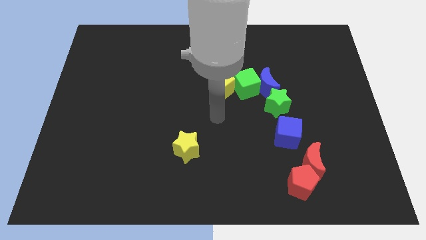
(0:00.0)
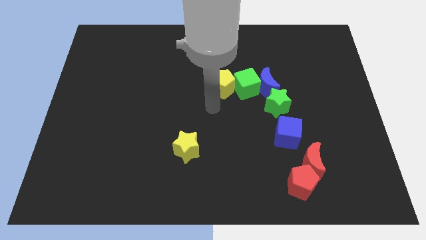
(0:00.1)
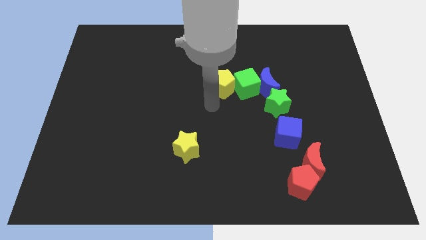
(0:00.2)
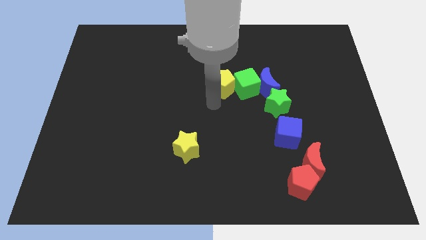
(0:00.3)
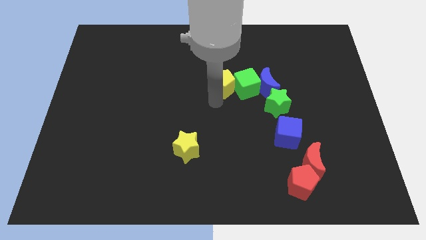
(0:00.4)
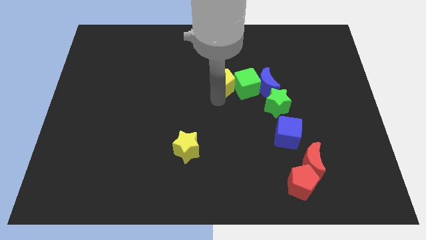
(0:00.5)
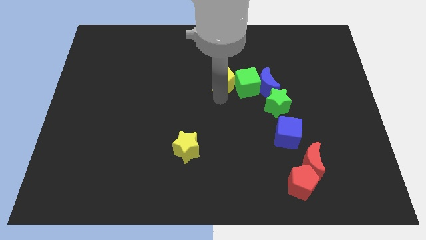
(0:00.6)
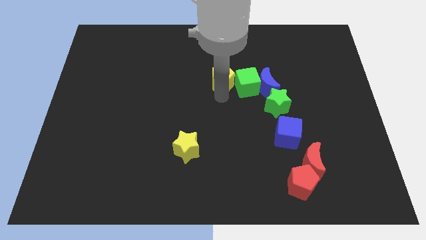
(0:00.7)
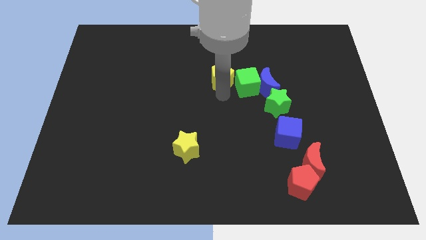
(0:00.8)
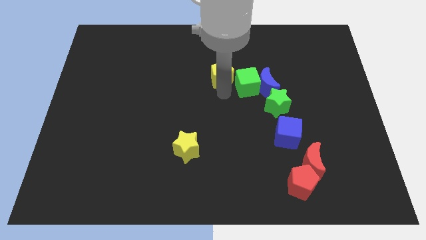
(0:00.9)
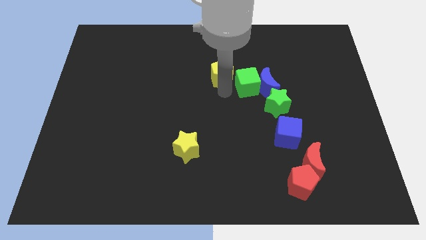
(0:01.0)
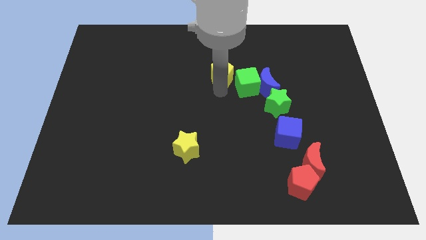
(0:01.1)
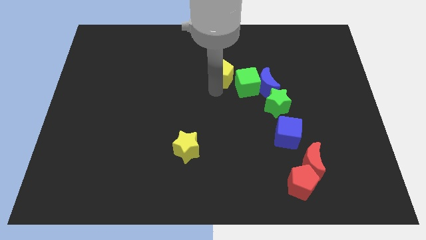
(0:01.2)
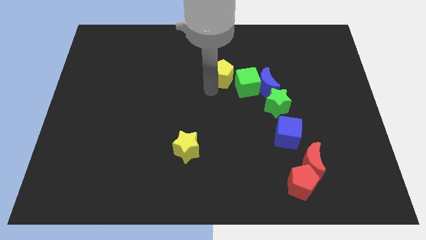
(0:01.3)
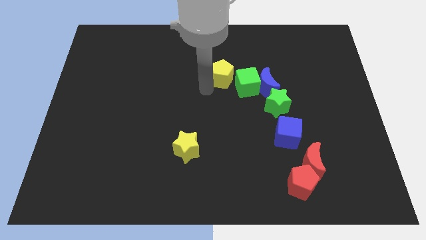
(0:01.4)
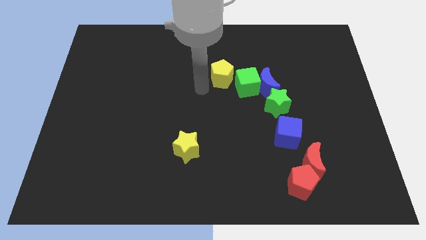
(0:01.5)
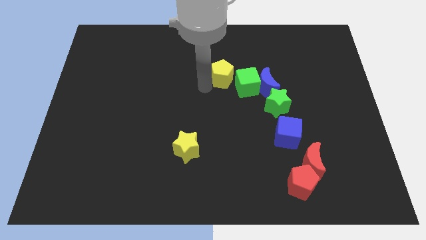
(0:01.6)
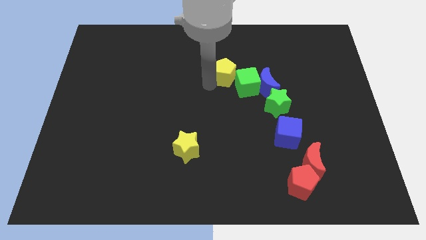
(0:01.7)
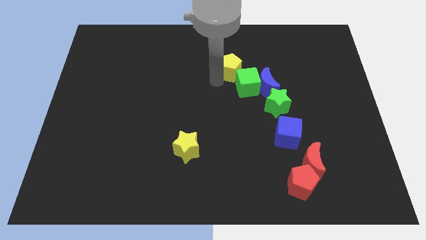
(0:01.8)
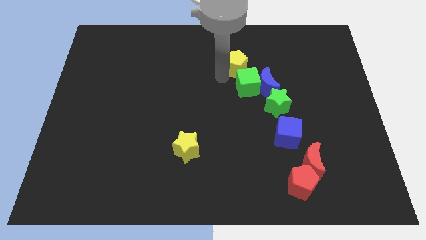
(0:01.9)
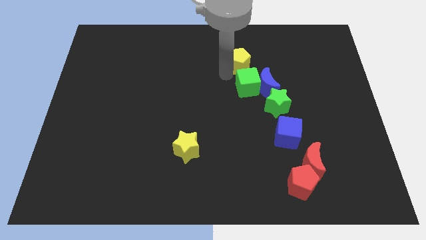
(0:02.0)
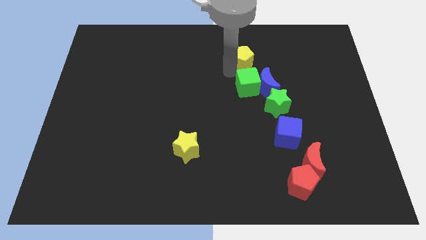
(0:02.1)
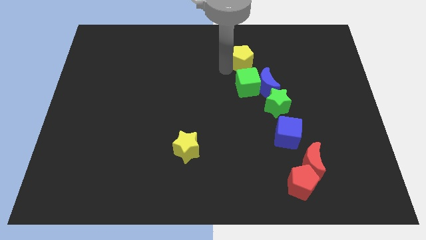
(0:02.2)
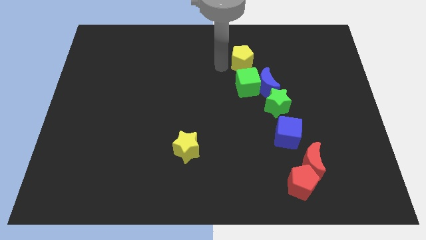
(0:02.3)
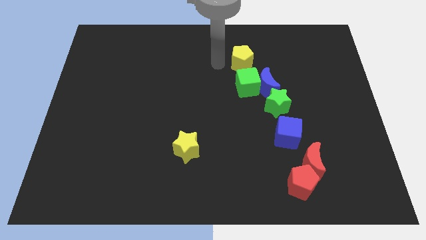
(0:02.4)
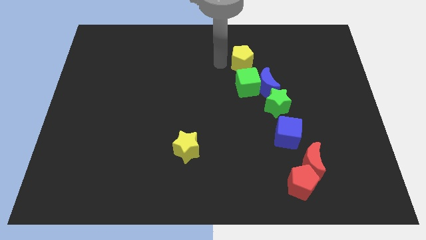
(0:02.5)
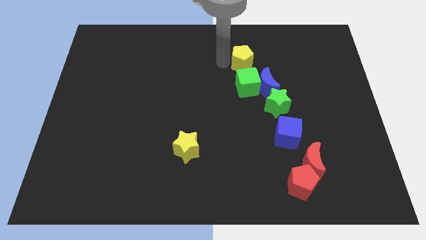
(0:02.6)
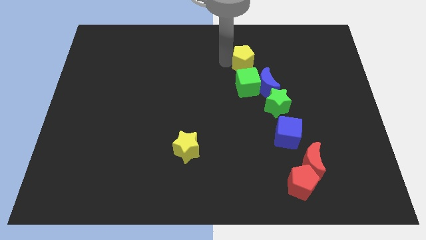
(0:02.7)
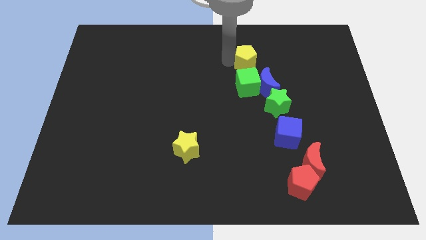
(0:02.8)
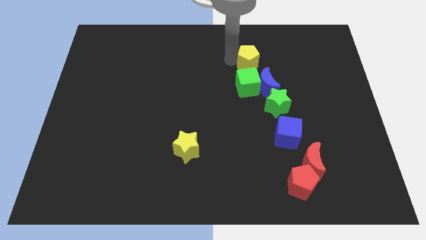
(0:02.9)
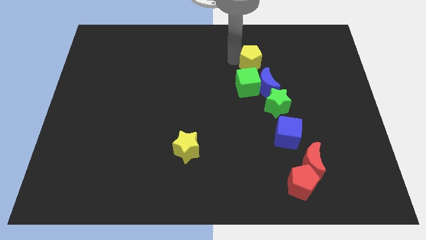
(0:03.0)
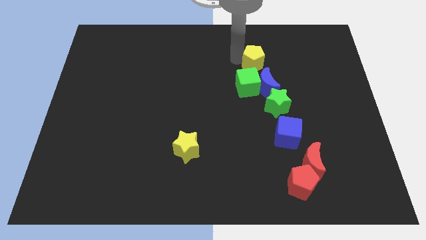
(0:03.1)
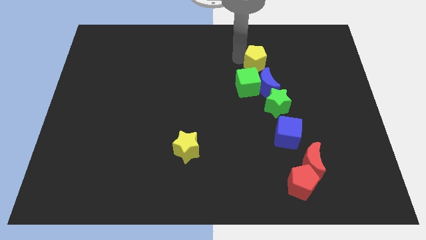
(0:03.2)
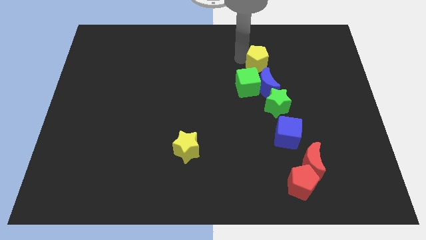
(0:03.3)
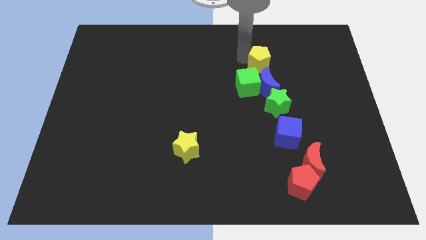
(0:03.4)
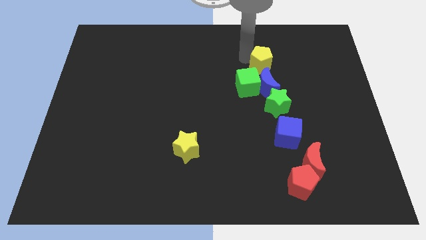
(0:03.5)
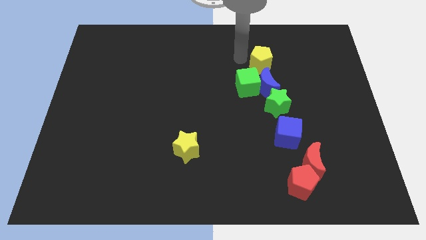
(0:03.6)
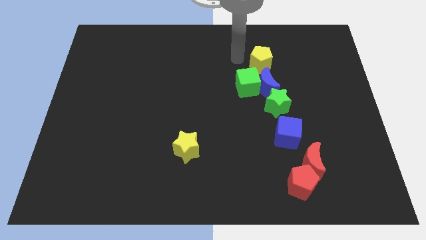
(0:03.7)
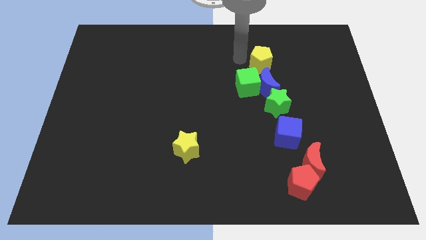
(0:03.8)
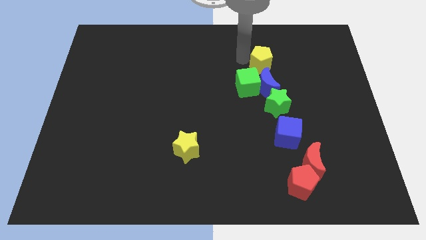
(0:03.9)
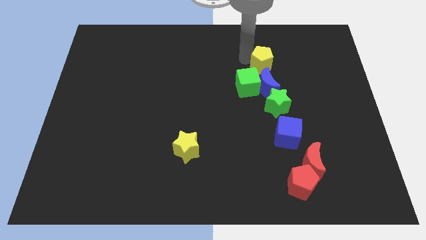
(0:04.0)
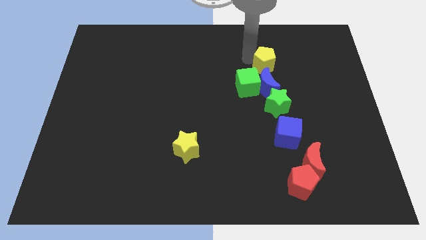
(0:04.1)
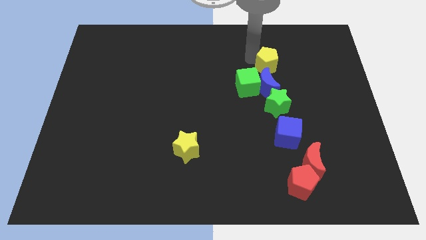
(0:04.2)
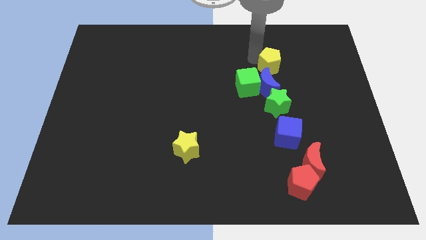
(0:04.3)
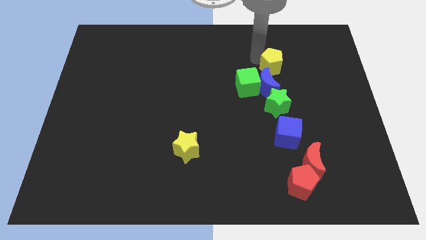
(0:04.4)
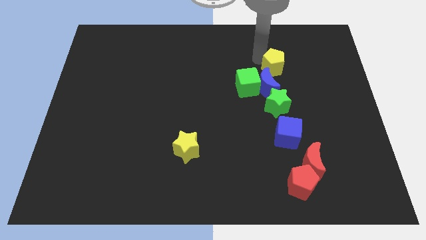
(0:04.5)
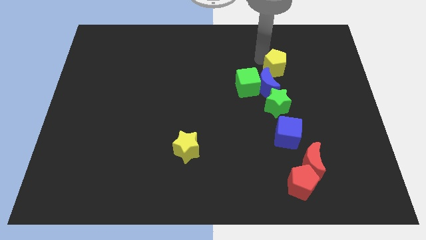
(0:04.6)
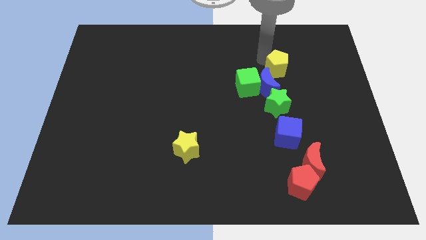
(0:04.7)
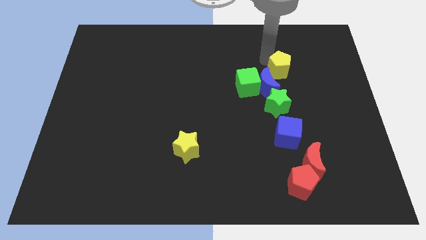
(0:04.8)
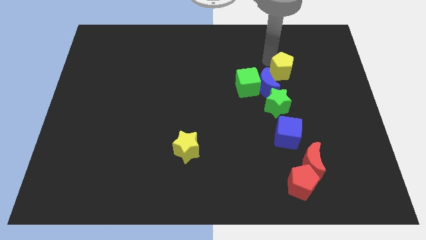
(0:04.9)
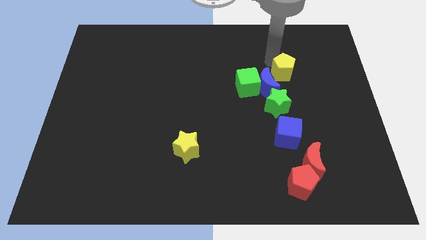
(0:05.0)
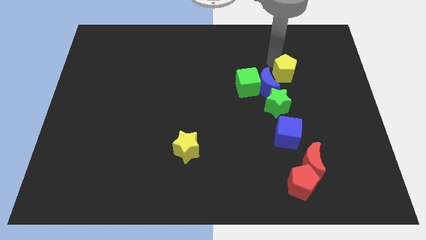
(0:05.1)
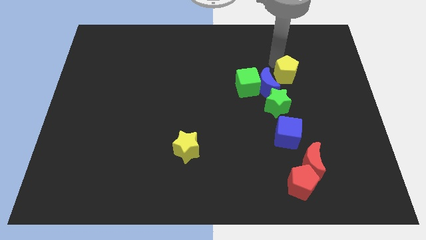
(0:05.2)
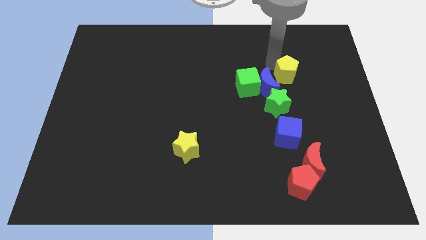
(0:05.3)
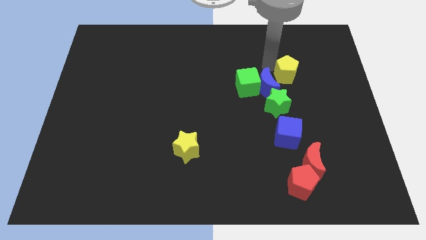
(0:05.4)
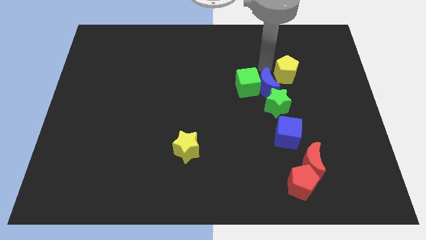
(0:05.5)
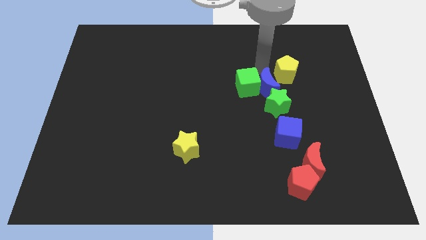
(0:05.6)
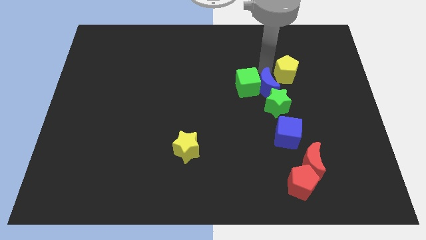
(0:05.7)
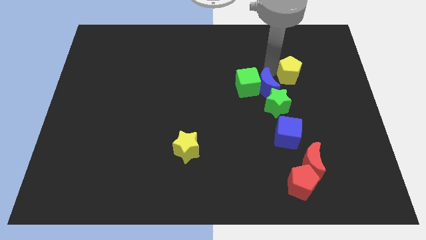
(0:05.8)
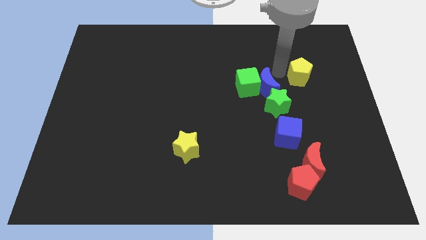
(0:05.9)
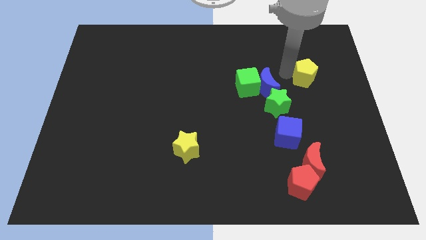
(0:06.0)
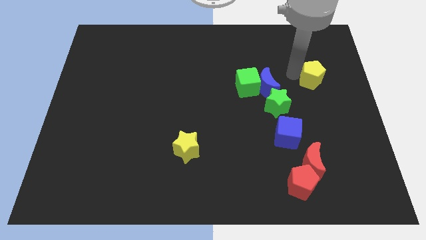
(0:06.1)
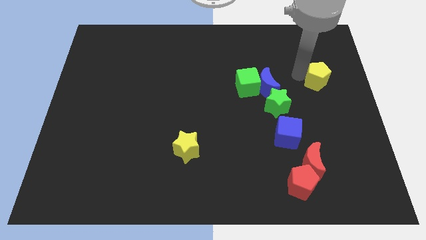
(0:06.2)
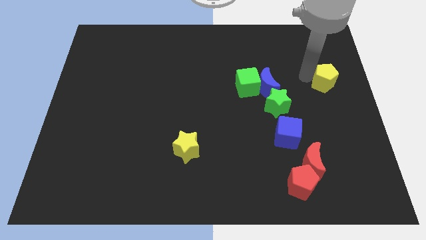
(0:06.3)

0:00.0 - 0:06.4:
slide the yellow pentagon to the center right

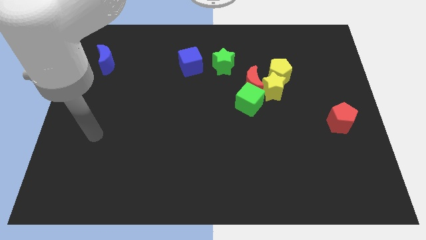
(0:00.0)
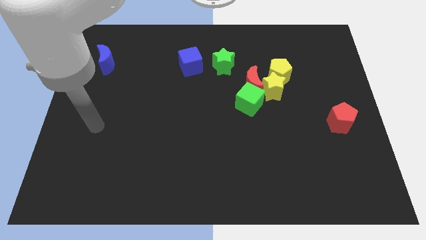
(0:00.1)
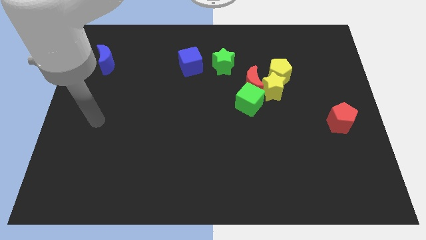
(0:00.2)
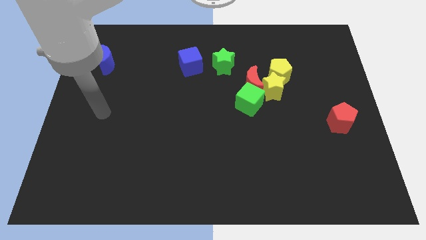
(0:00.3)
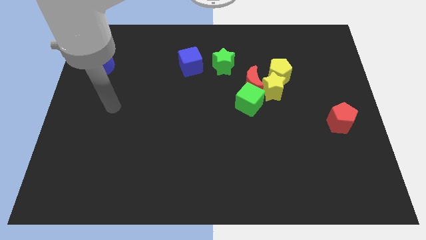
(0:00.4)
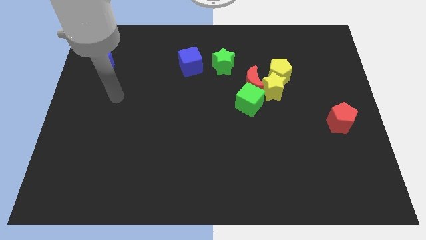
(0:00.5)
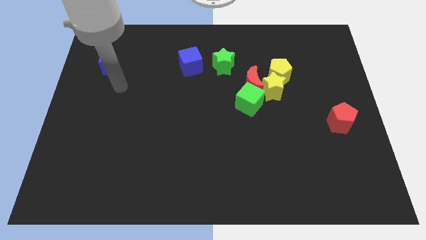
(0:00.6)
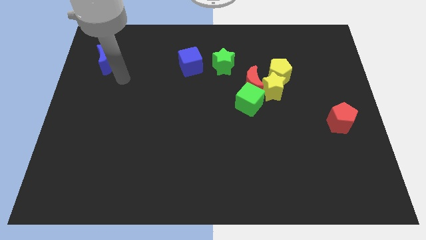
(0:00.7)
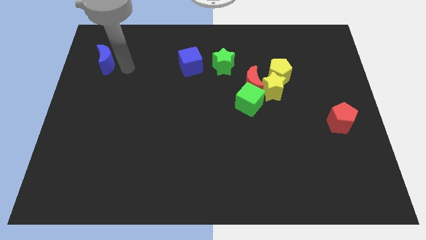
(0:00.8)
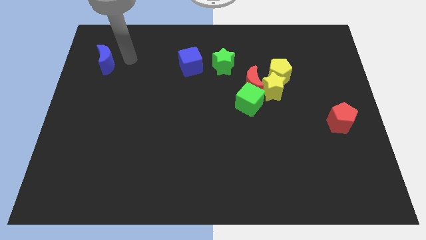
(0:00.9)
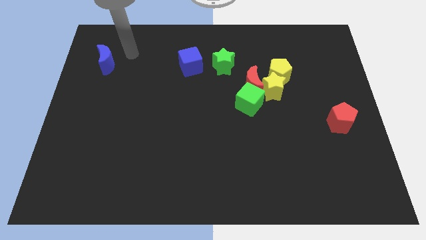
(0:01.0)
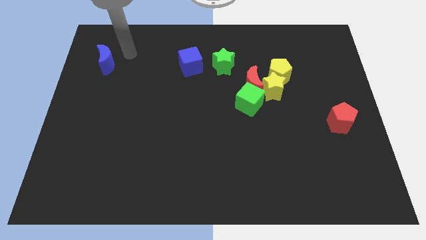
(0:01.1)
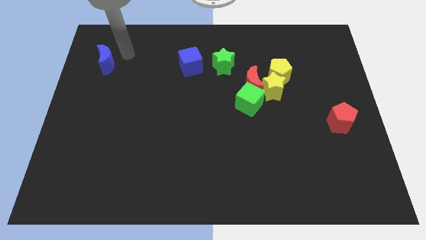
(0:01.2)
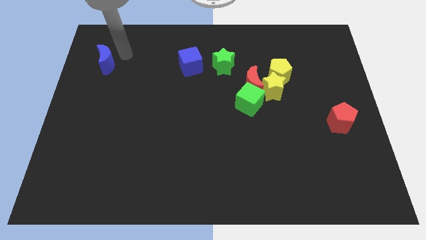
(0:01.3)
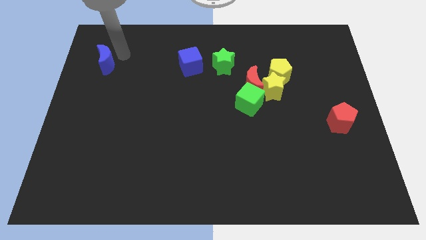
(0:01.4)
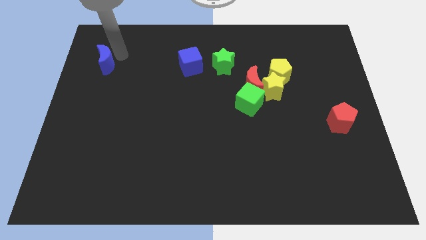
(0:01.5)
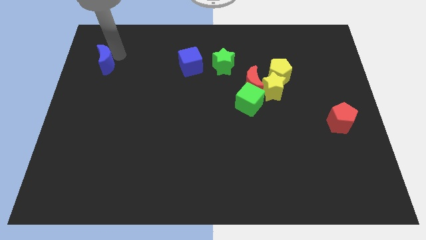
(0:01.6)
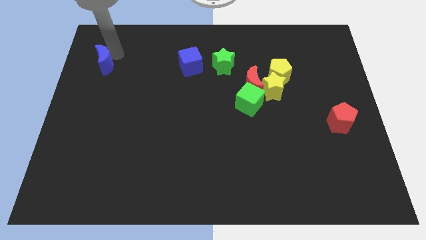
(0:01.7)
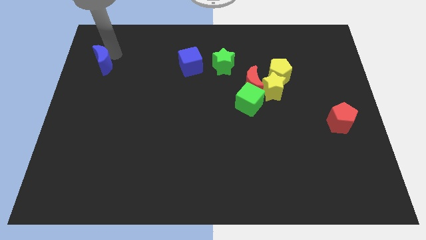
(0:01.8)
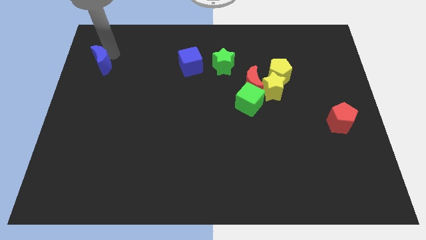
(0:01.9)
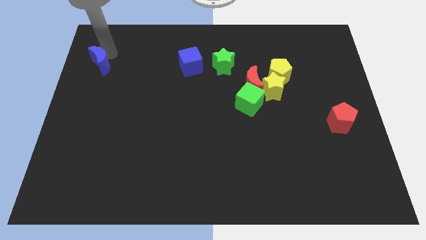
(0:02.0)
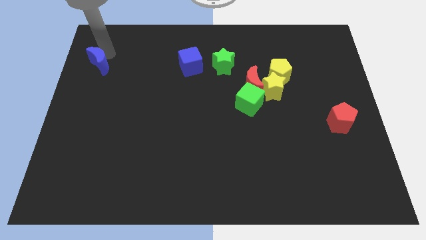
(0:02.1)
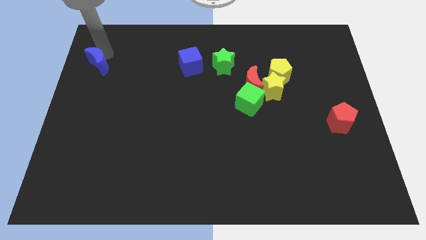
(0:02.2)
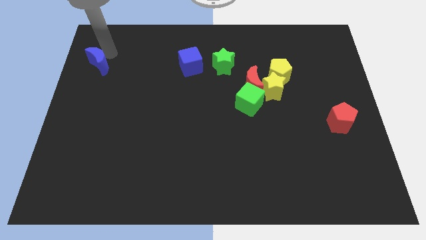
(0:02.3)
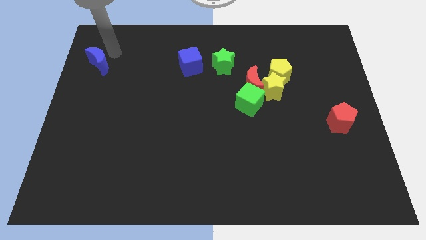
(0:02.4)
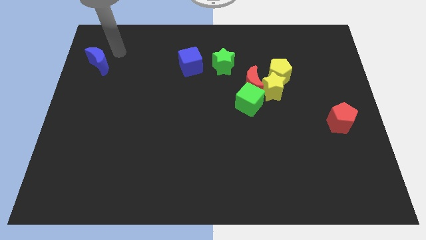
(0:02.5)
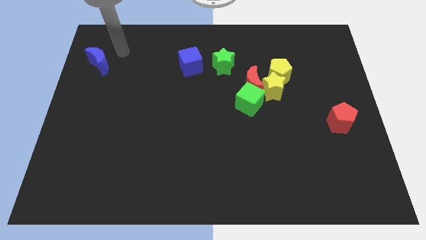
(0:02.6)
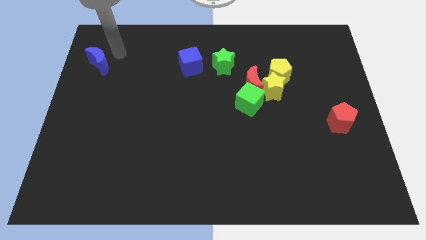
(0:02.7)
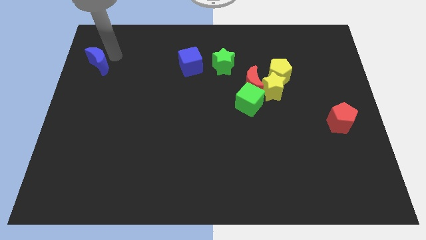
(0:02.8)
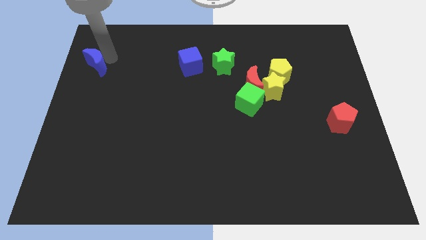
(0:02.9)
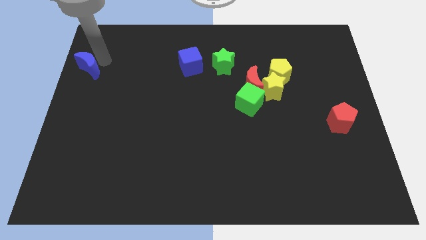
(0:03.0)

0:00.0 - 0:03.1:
move the blue moon to the center left
